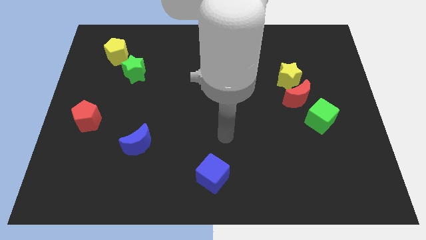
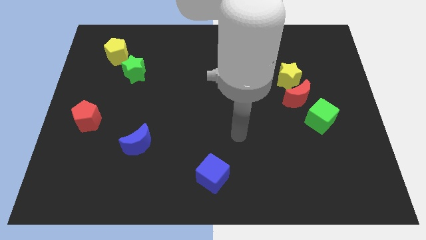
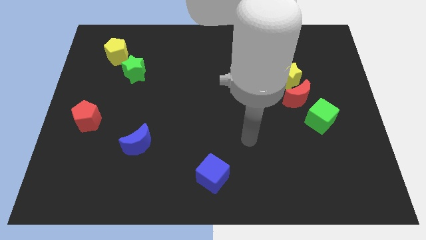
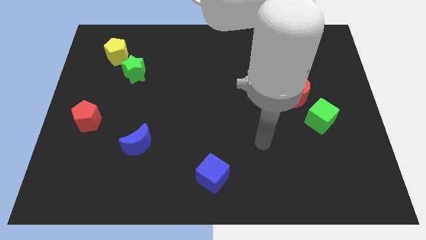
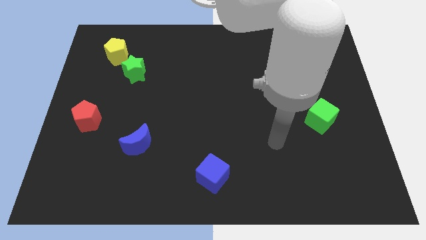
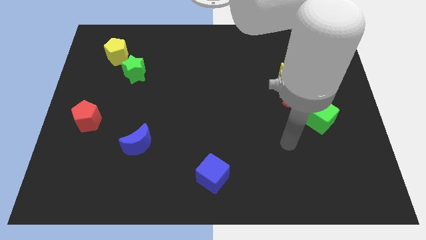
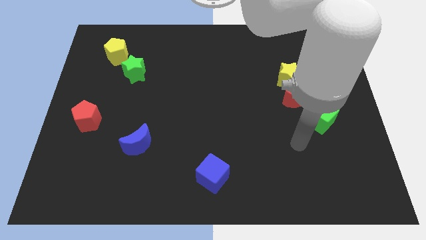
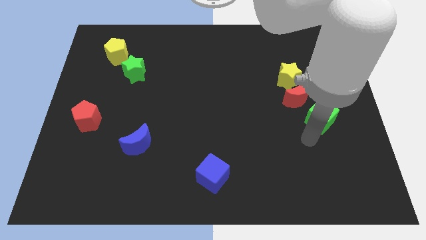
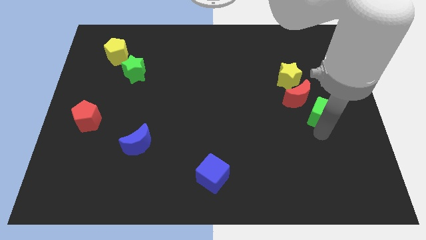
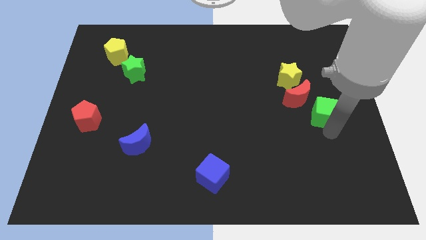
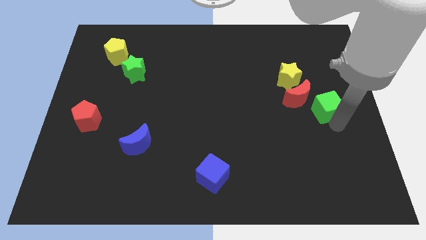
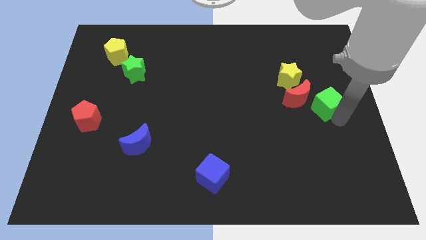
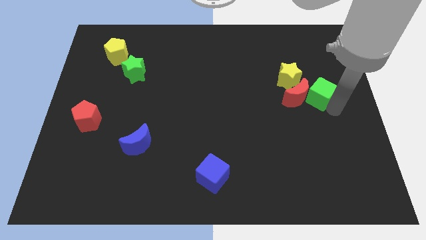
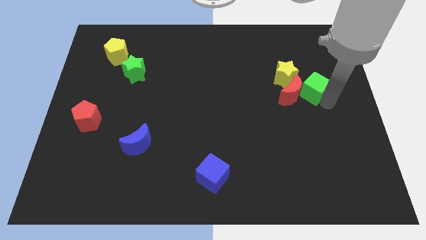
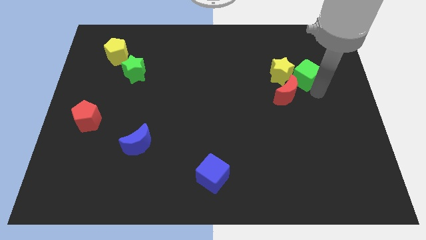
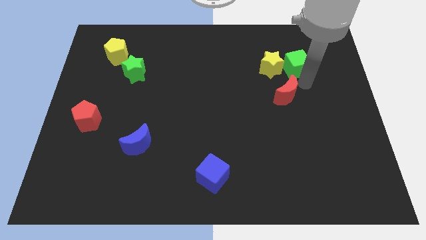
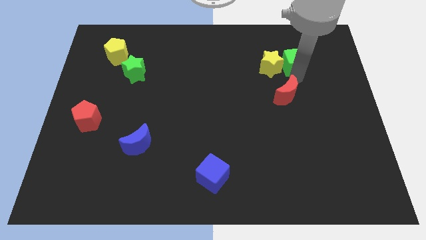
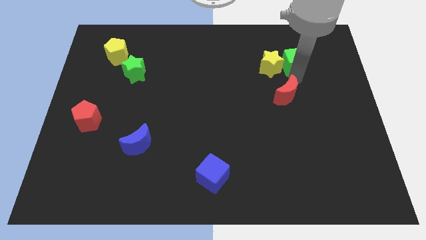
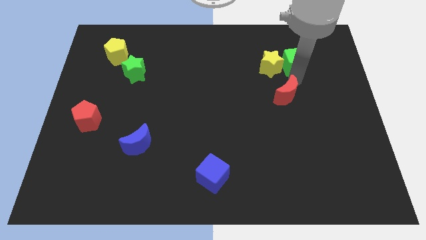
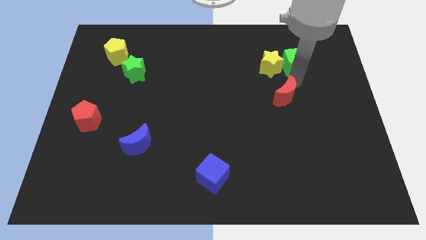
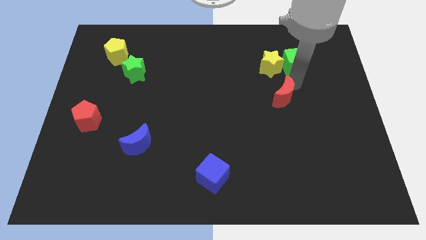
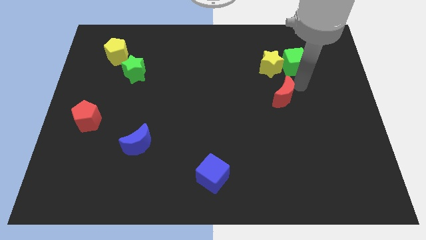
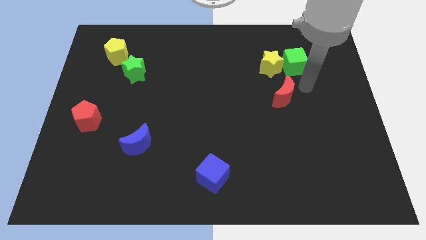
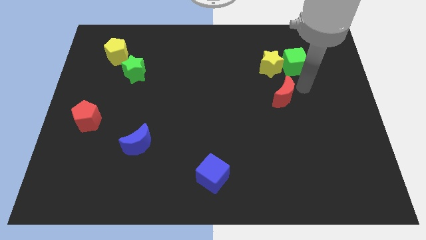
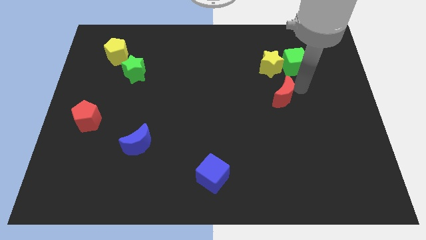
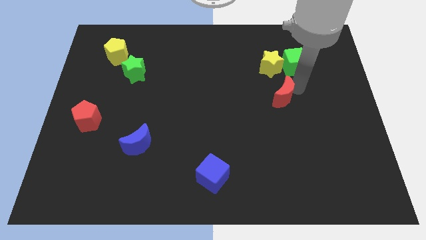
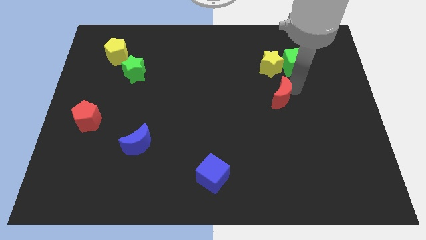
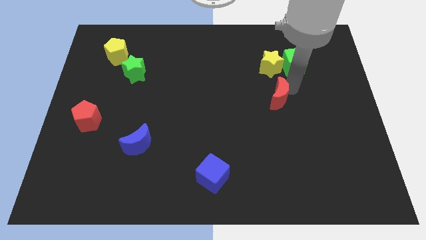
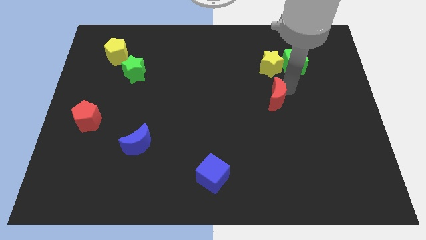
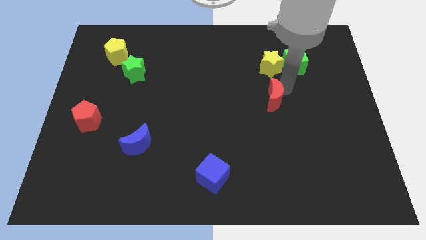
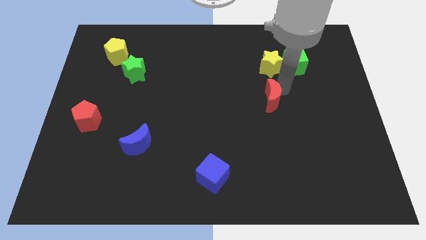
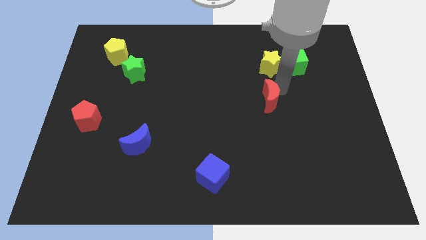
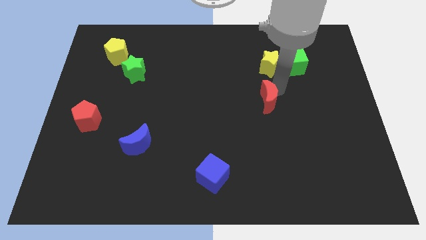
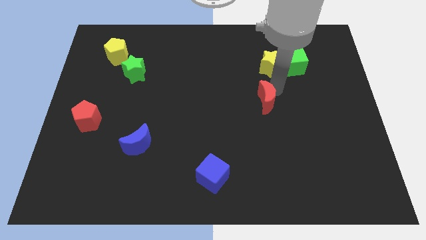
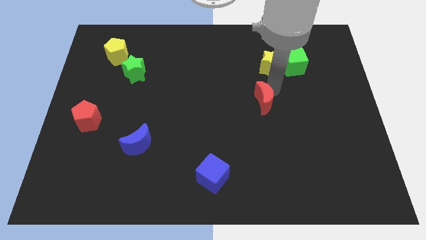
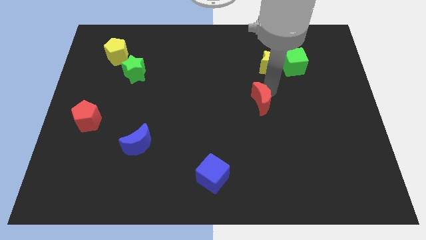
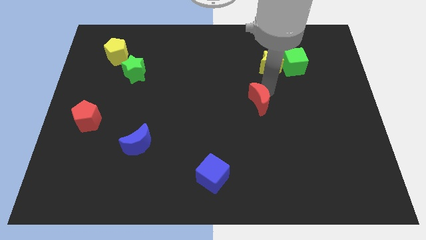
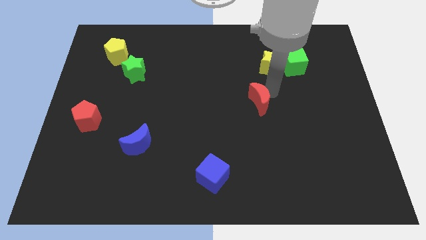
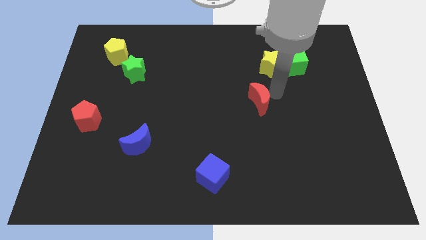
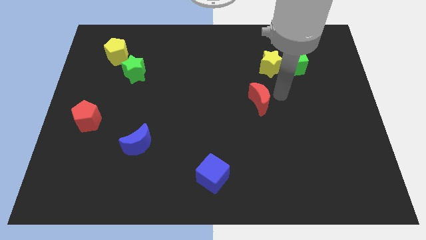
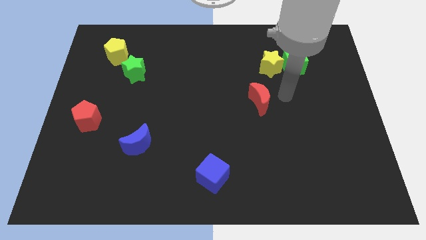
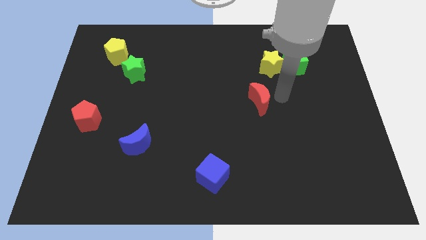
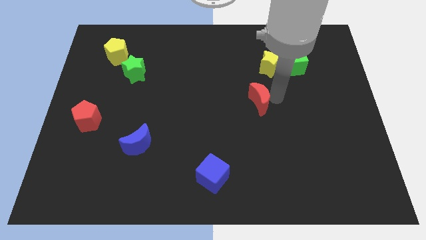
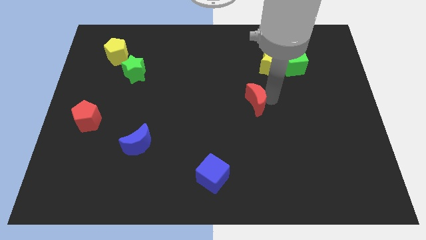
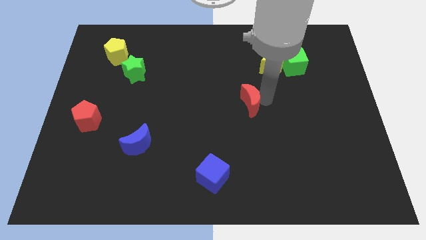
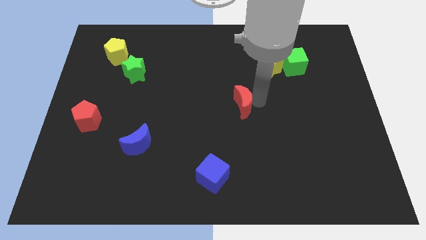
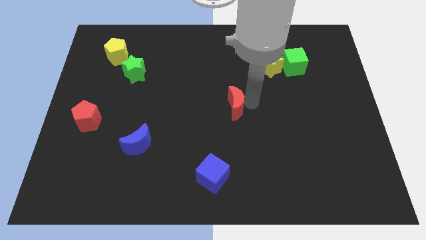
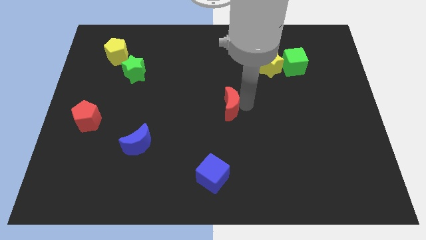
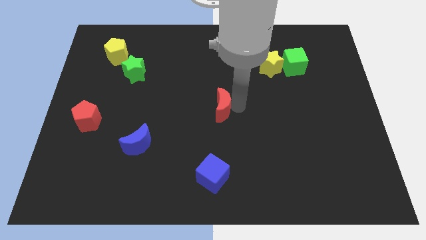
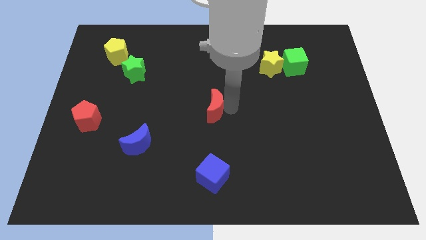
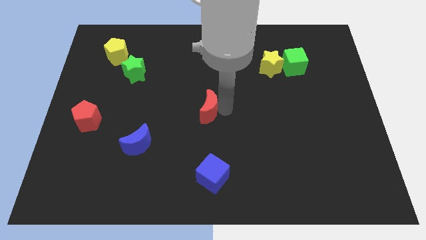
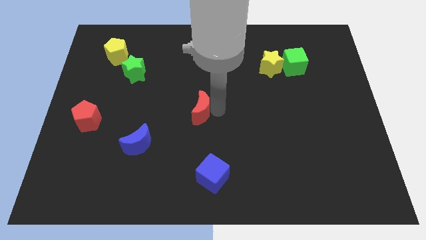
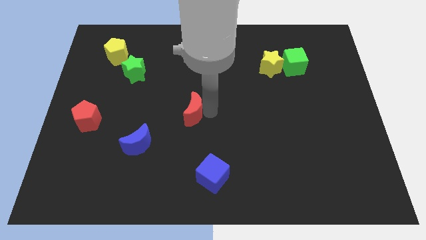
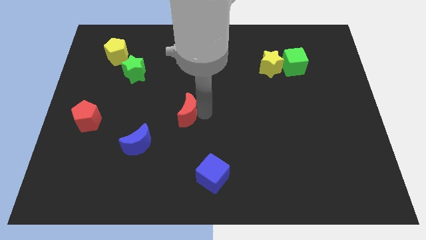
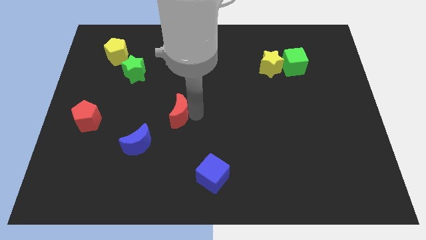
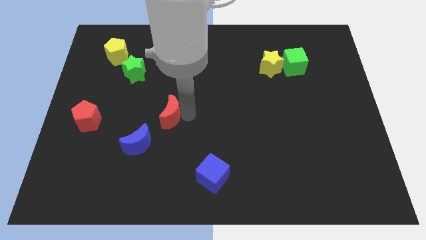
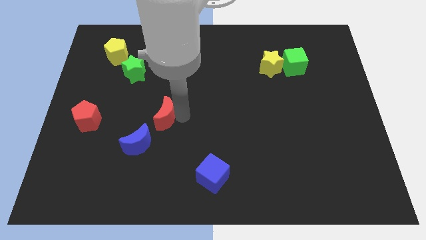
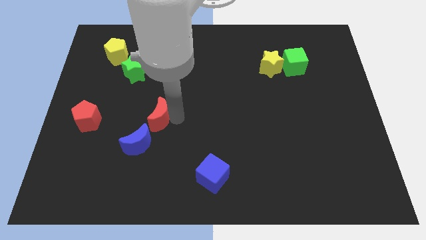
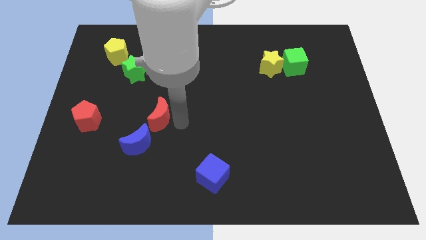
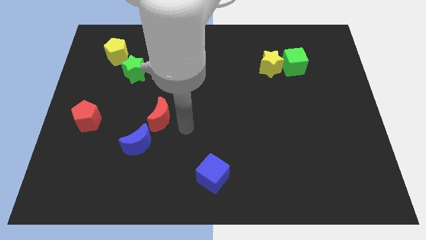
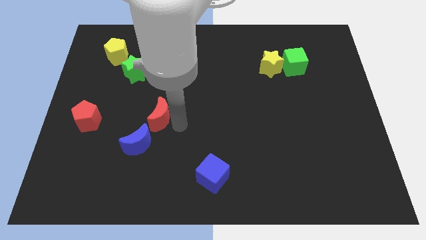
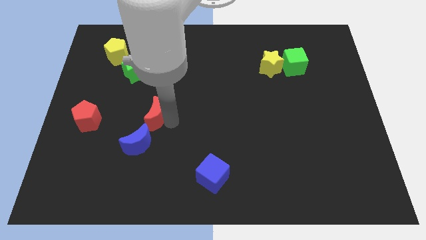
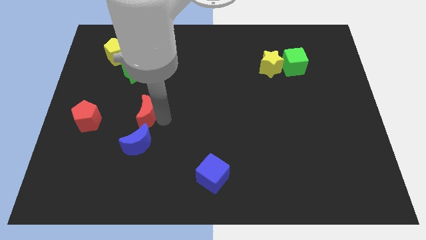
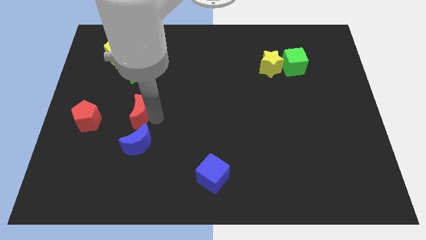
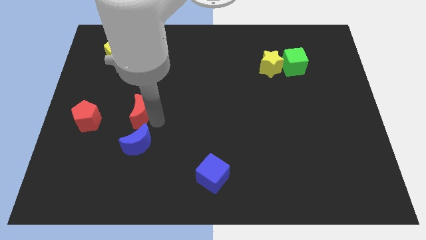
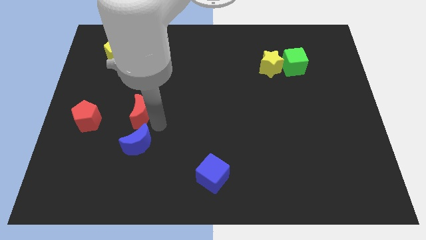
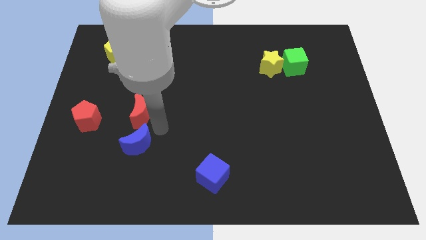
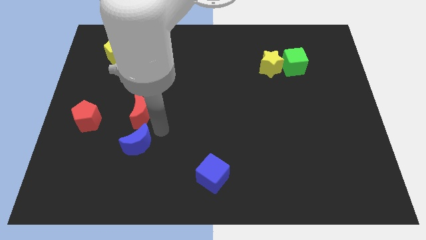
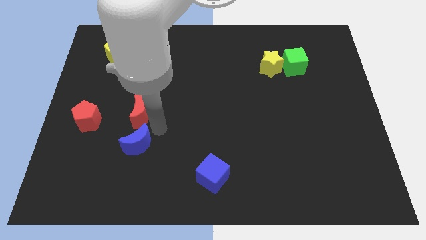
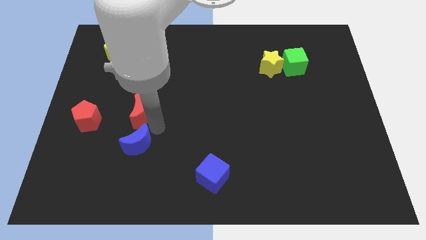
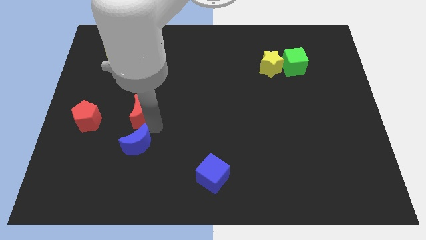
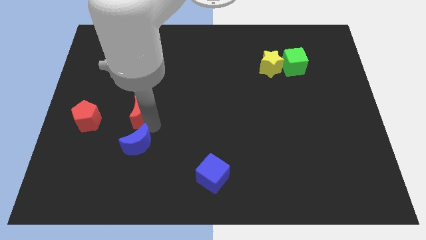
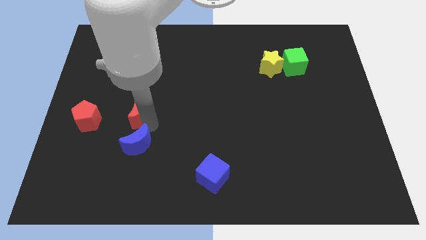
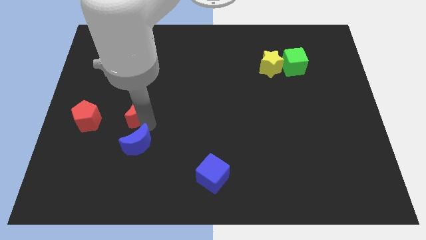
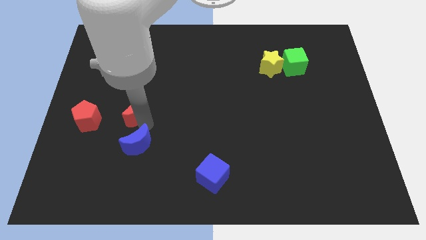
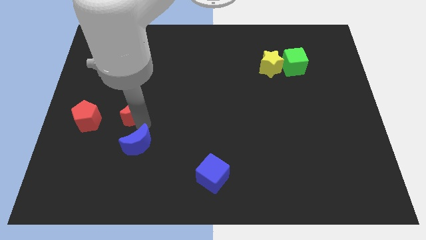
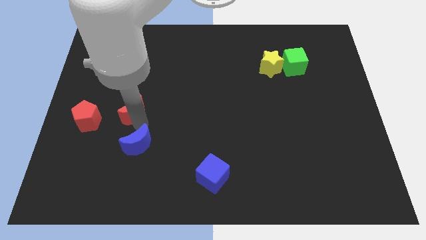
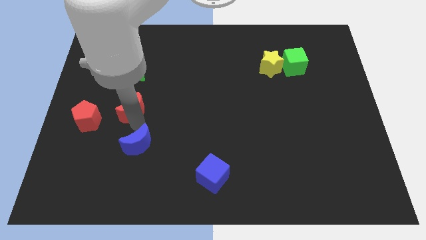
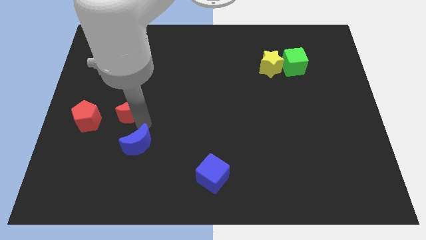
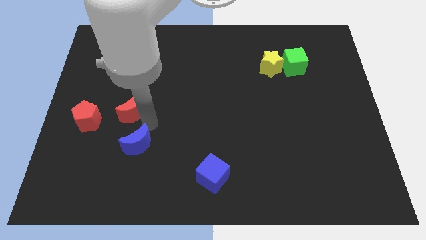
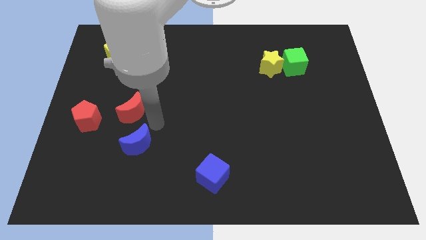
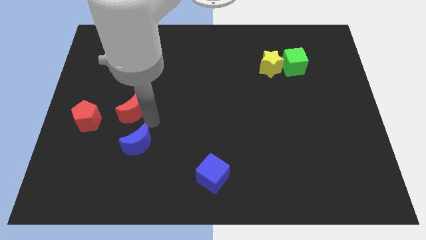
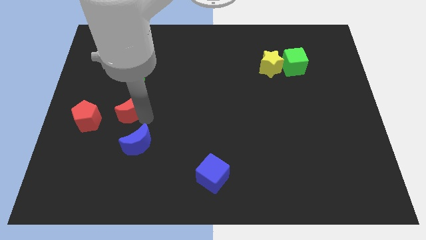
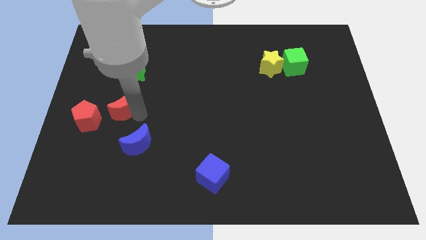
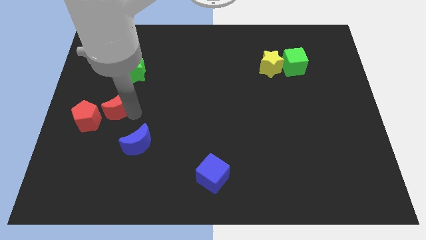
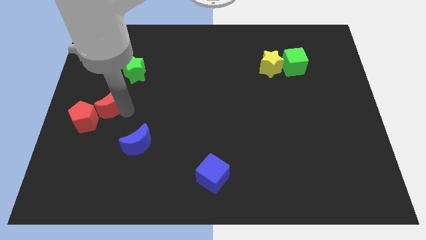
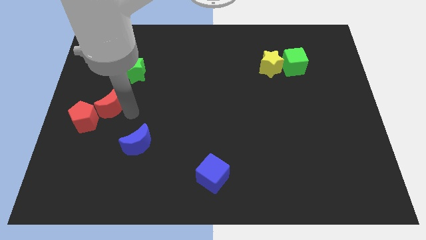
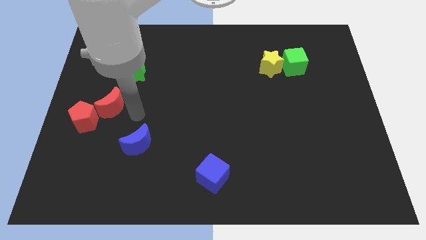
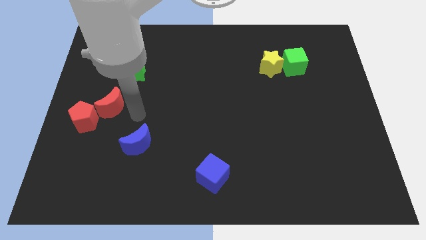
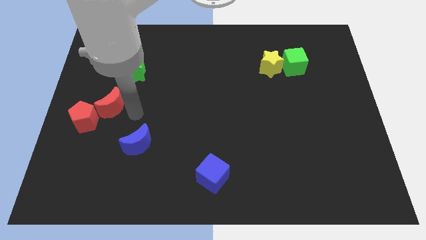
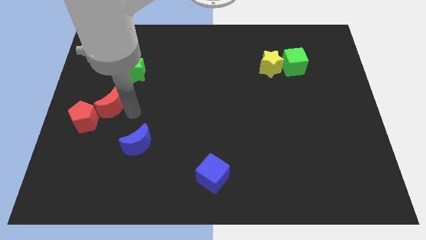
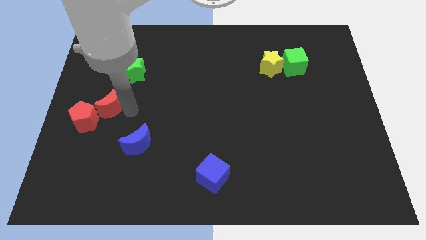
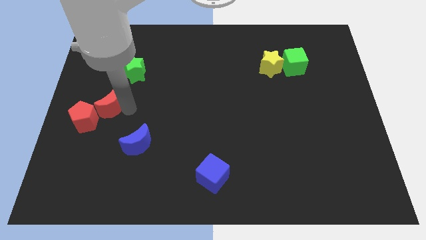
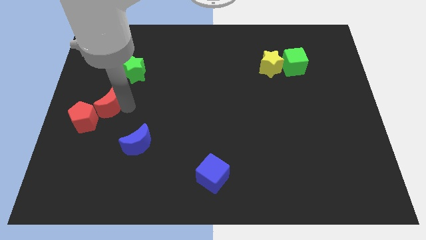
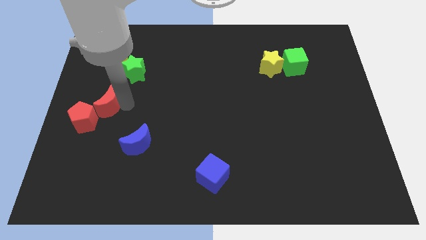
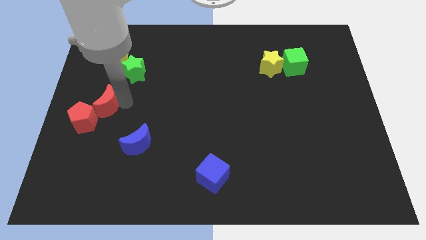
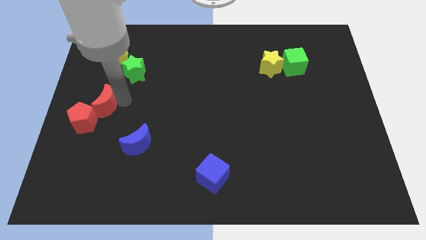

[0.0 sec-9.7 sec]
push the red moon to the left side of the board
